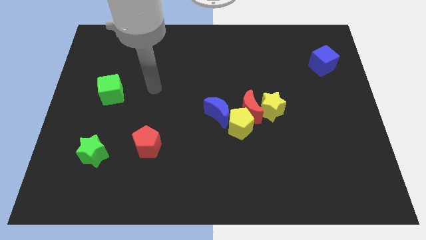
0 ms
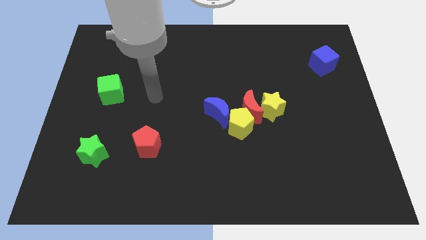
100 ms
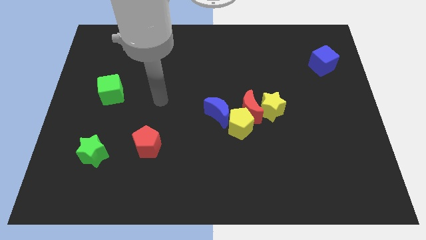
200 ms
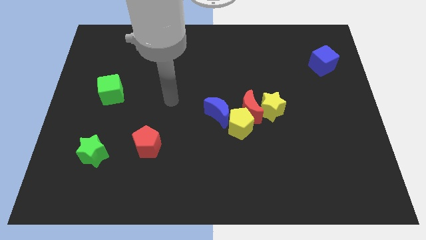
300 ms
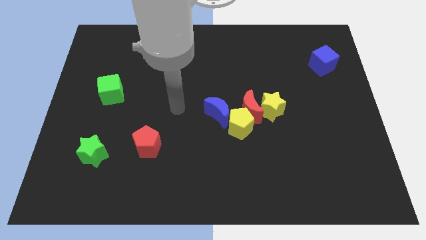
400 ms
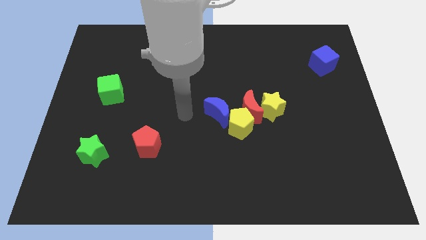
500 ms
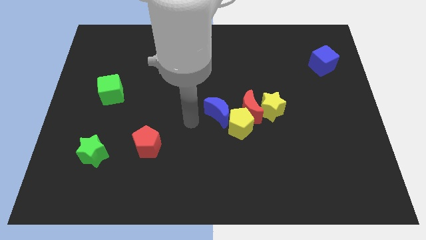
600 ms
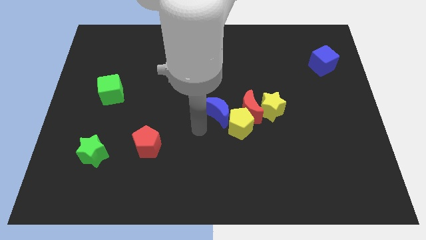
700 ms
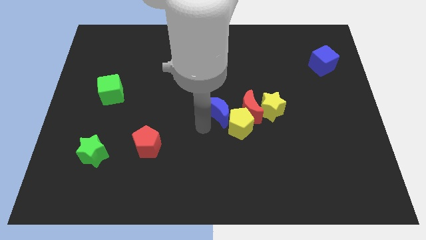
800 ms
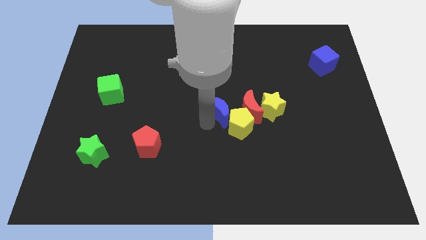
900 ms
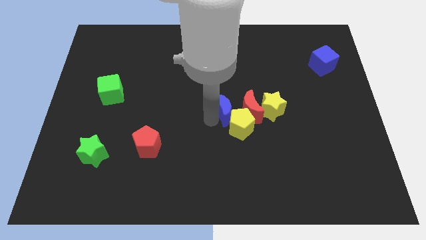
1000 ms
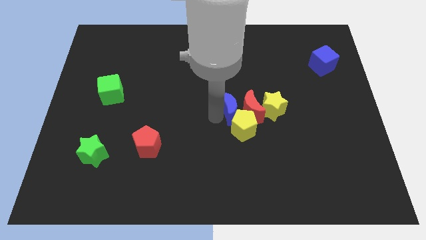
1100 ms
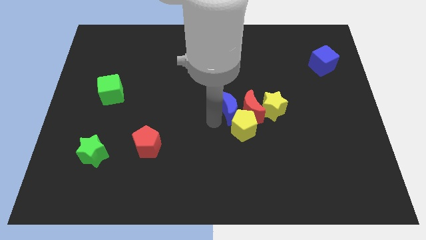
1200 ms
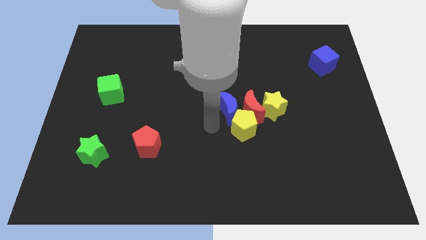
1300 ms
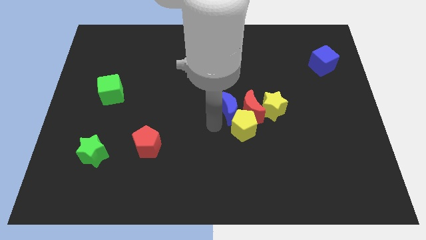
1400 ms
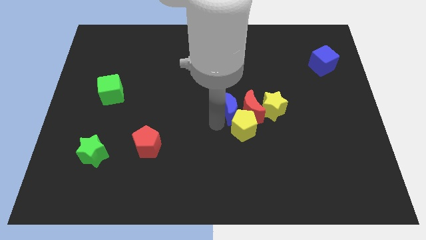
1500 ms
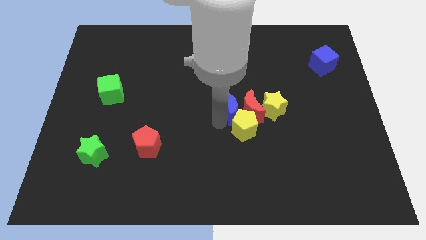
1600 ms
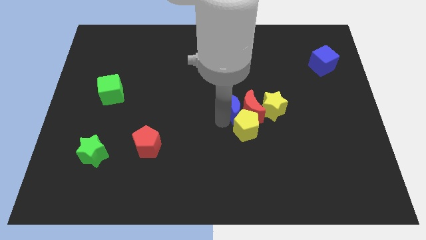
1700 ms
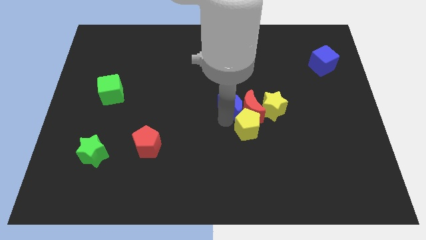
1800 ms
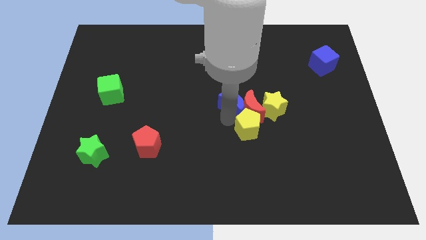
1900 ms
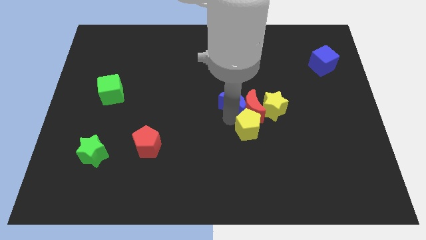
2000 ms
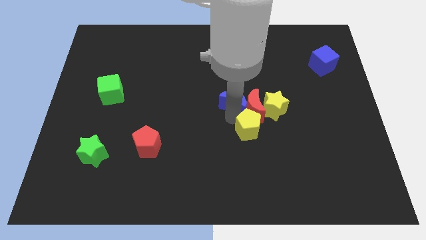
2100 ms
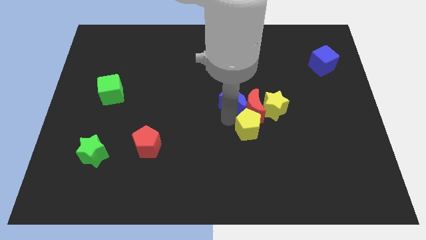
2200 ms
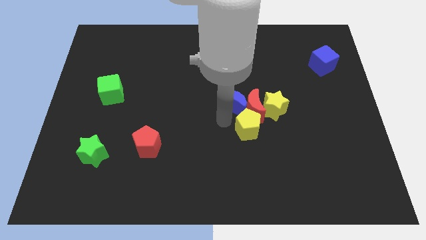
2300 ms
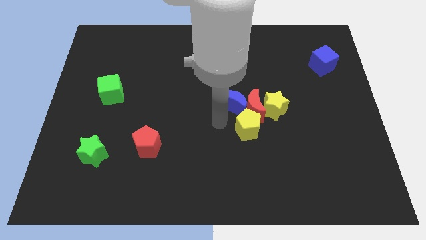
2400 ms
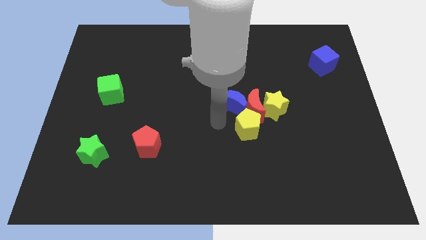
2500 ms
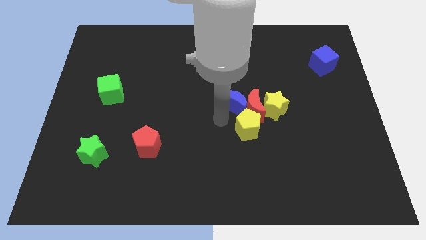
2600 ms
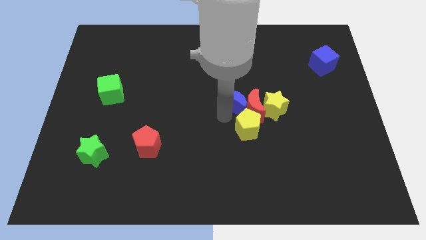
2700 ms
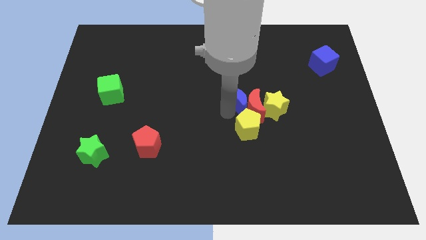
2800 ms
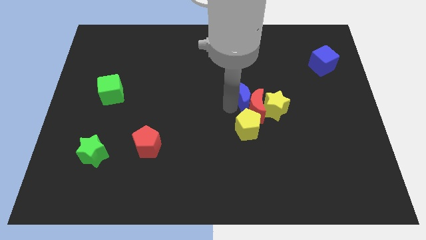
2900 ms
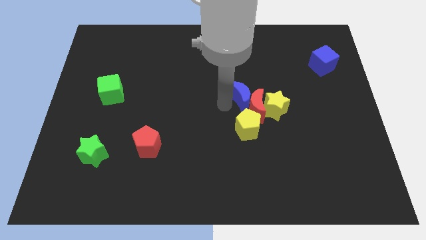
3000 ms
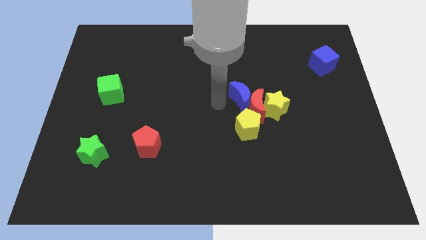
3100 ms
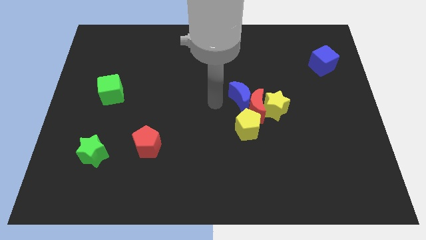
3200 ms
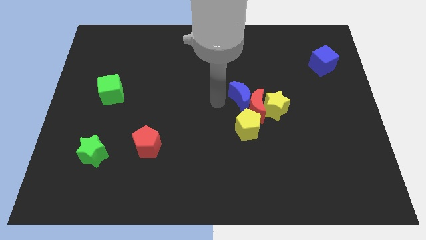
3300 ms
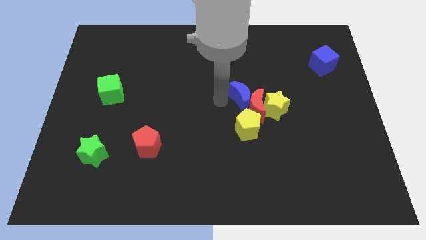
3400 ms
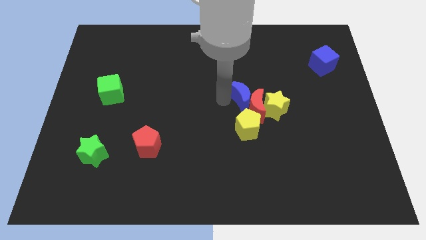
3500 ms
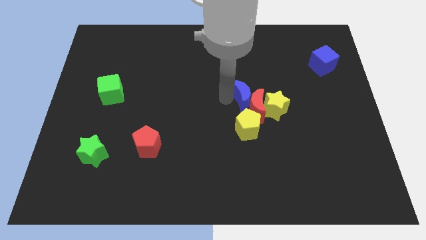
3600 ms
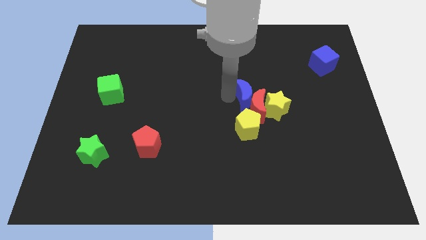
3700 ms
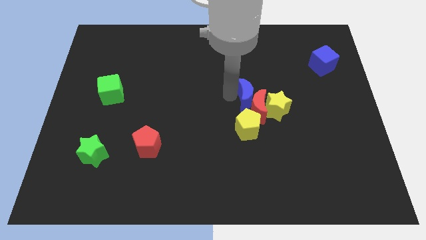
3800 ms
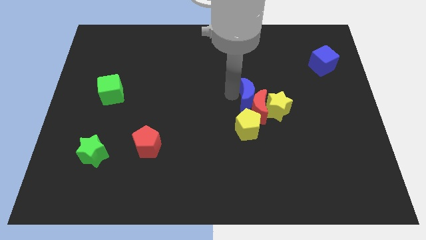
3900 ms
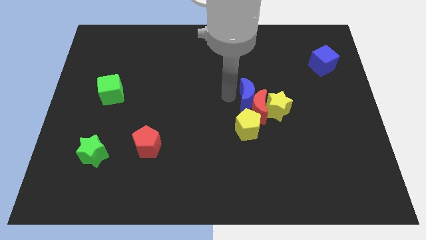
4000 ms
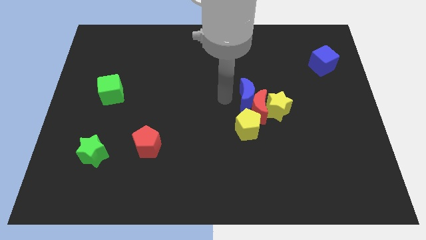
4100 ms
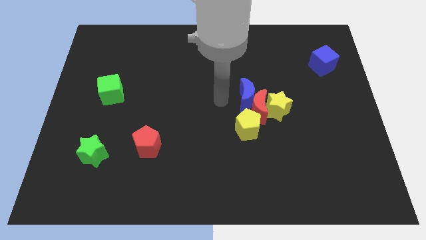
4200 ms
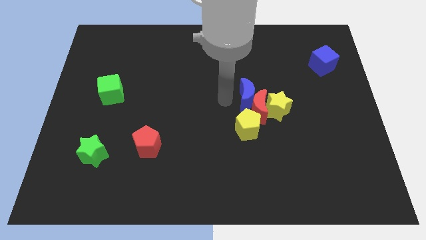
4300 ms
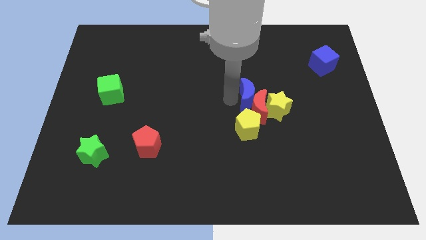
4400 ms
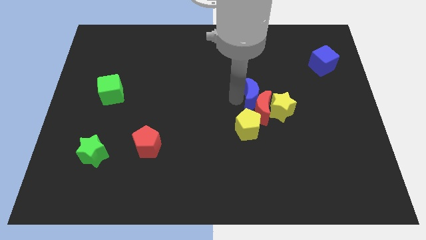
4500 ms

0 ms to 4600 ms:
slightly move the blue moon right

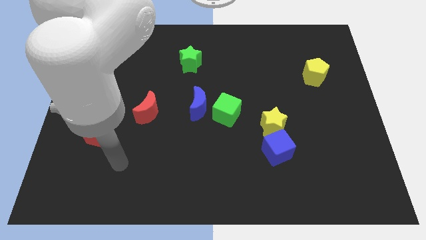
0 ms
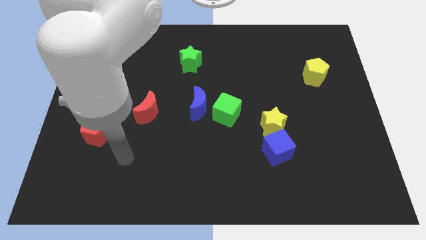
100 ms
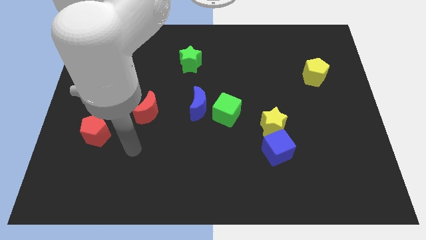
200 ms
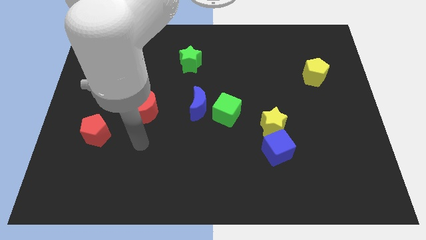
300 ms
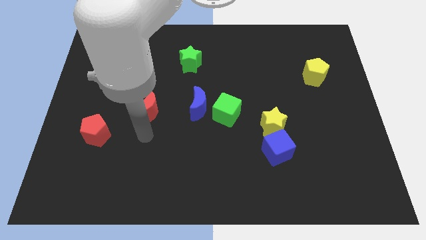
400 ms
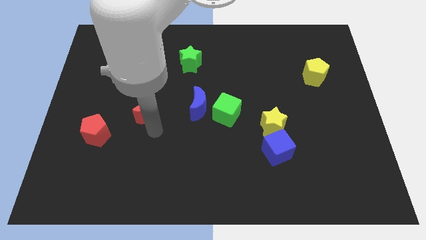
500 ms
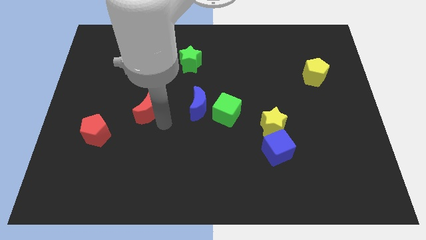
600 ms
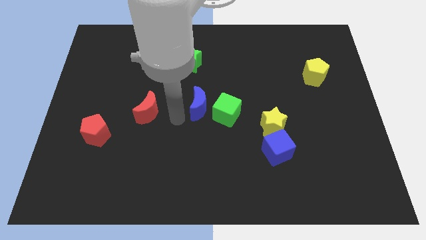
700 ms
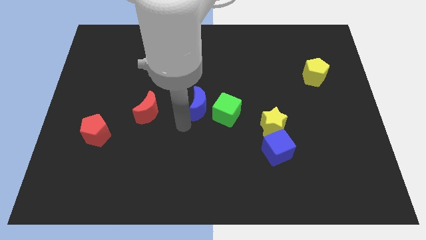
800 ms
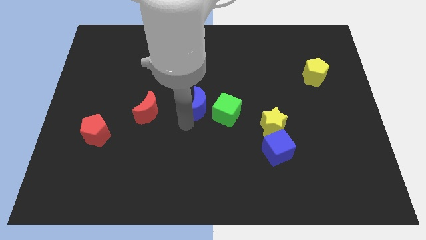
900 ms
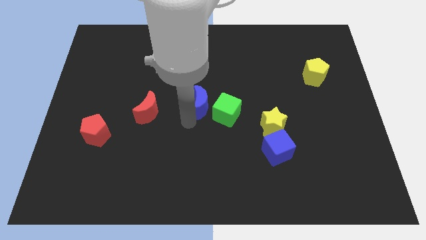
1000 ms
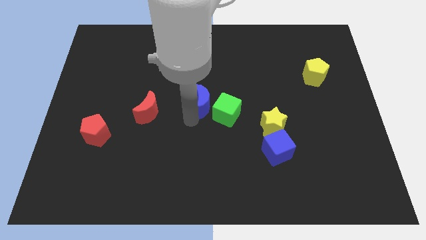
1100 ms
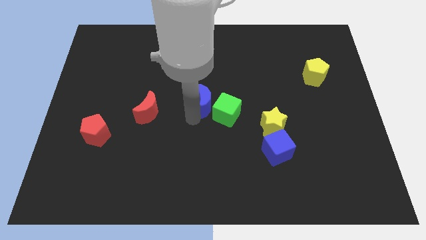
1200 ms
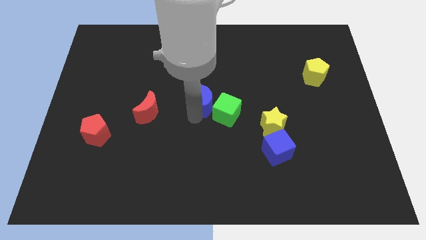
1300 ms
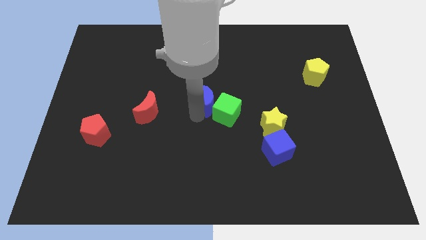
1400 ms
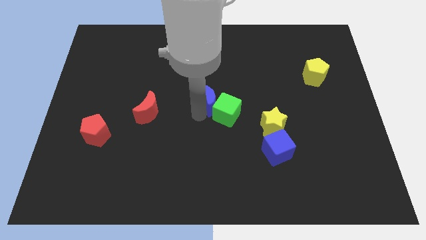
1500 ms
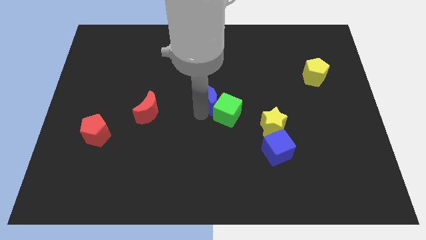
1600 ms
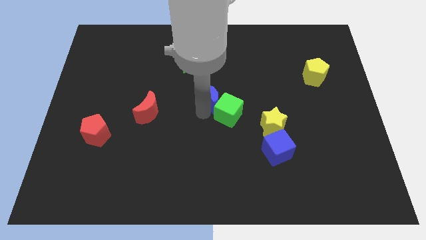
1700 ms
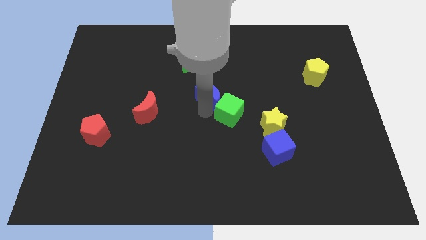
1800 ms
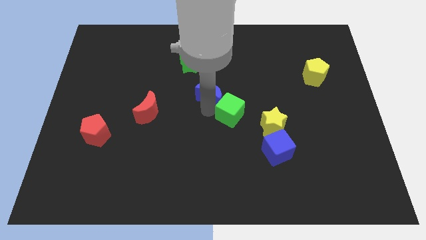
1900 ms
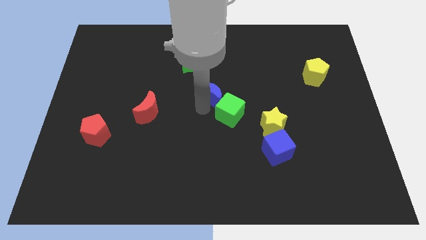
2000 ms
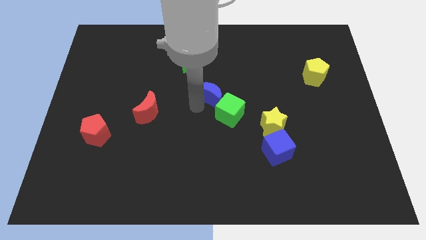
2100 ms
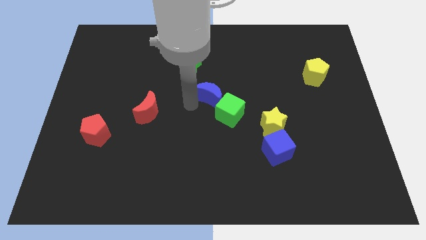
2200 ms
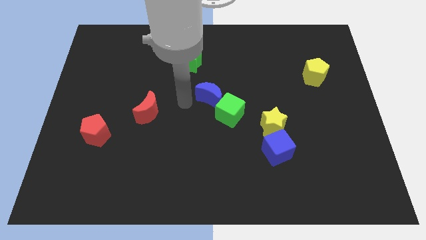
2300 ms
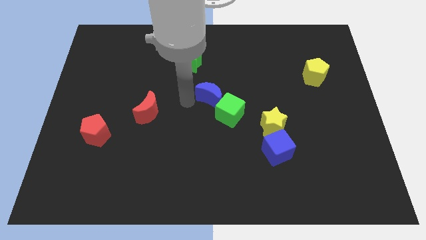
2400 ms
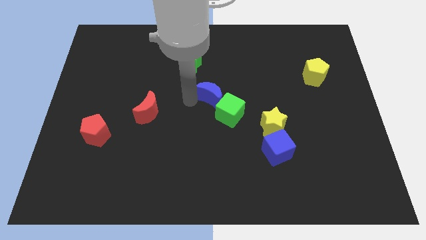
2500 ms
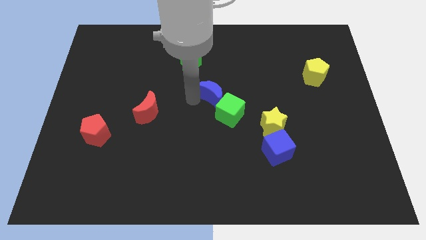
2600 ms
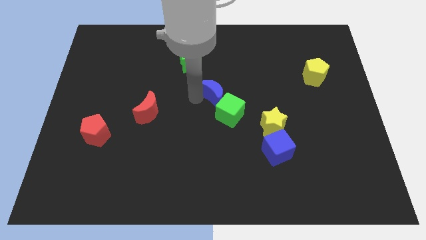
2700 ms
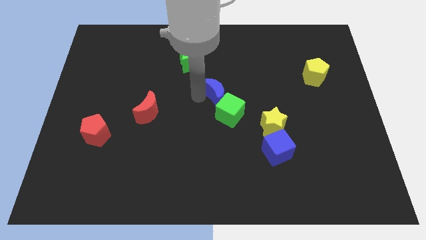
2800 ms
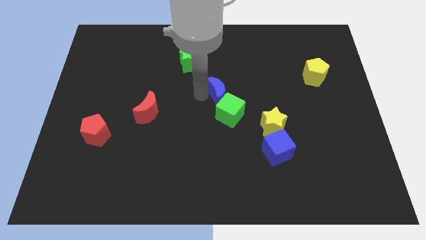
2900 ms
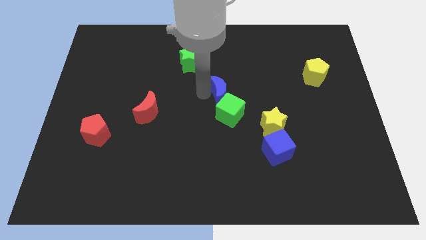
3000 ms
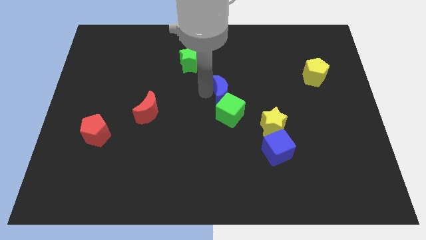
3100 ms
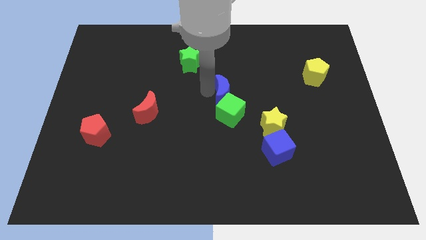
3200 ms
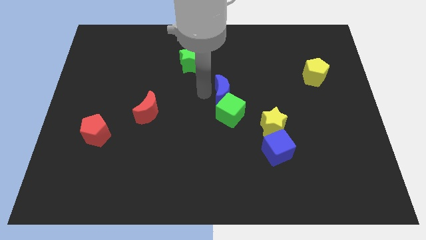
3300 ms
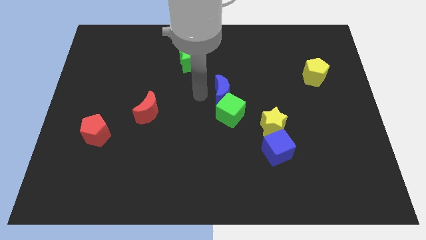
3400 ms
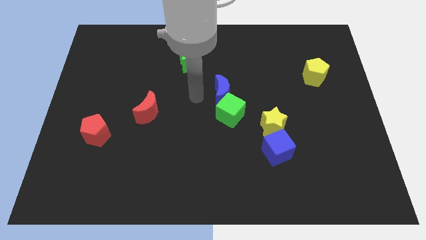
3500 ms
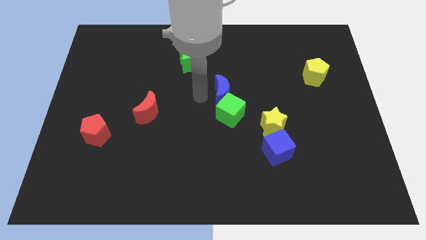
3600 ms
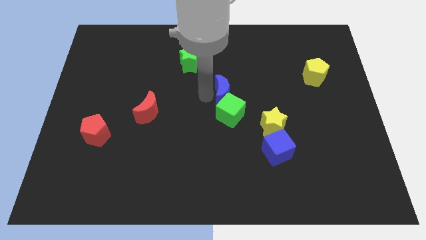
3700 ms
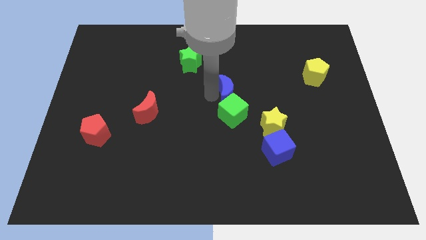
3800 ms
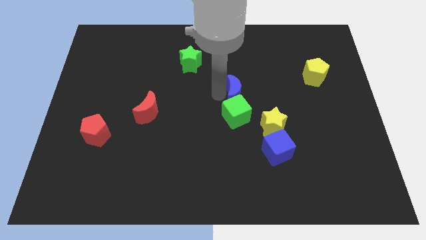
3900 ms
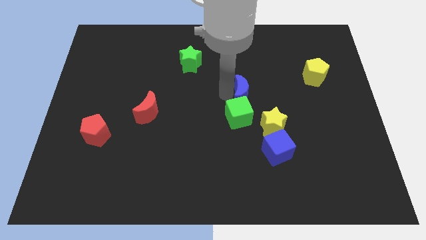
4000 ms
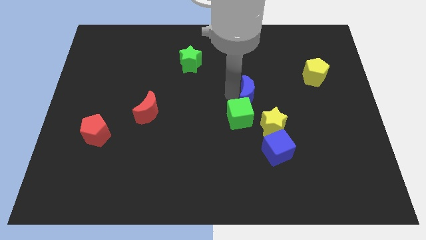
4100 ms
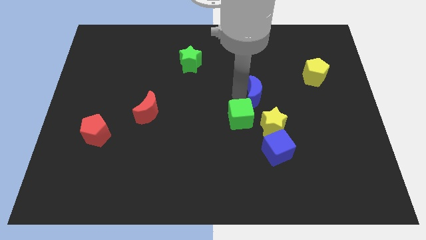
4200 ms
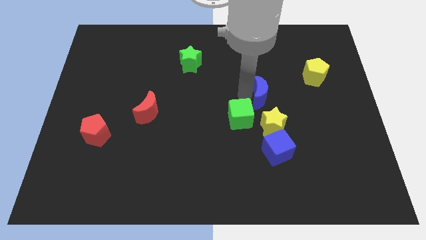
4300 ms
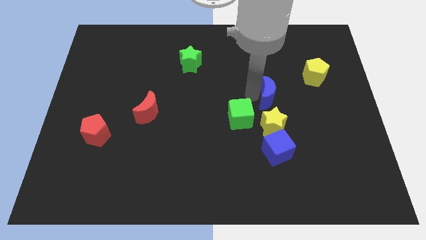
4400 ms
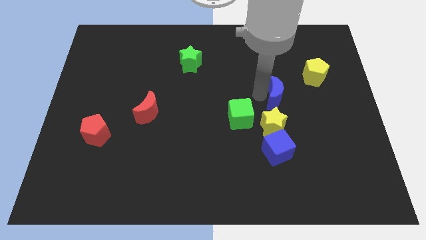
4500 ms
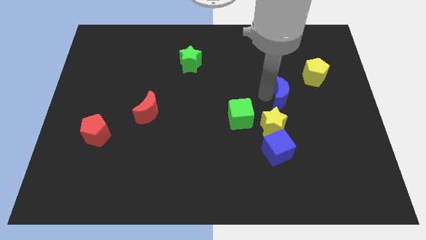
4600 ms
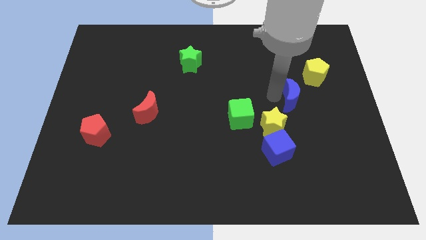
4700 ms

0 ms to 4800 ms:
move the blue moon to the right
